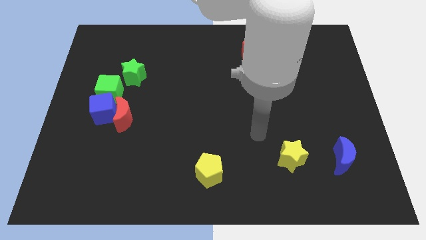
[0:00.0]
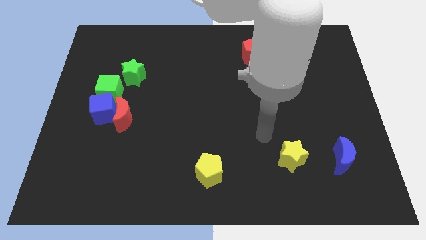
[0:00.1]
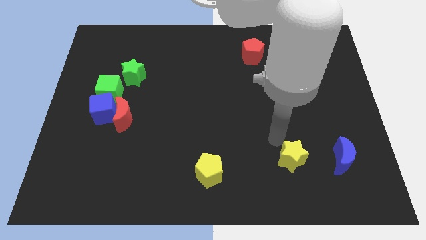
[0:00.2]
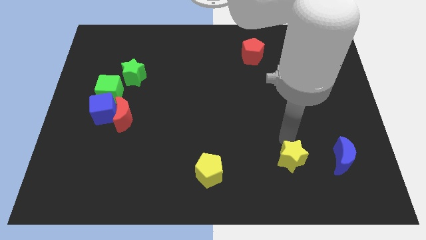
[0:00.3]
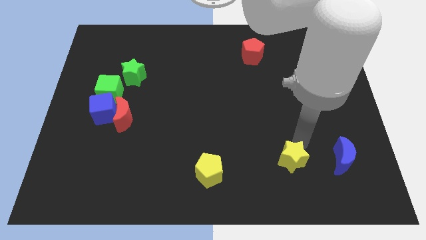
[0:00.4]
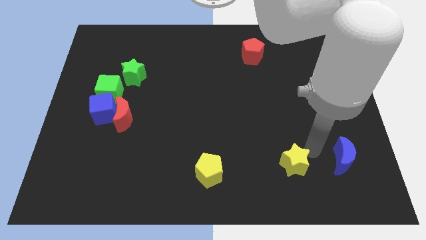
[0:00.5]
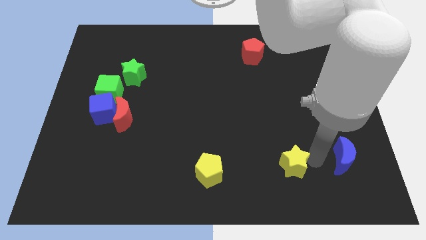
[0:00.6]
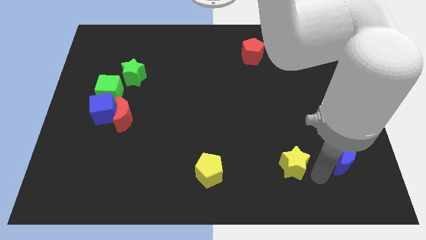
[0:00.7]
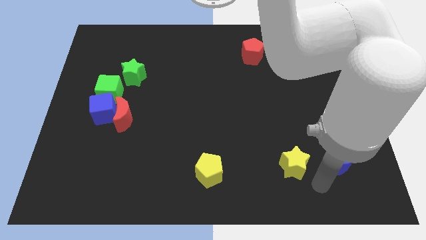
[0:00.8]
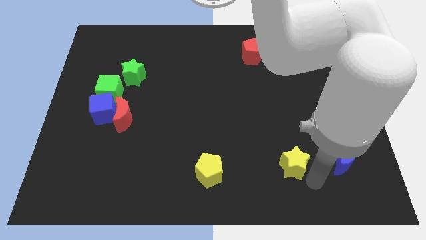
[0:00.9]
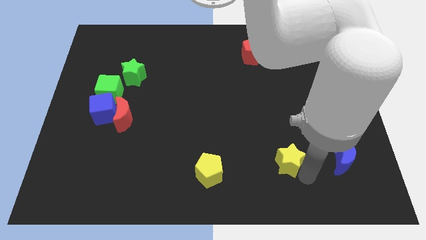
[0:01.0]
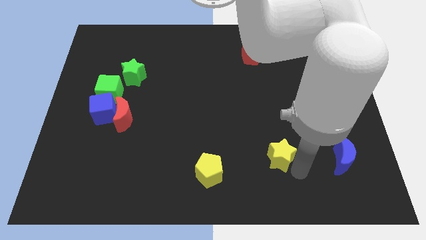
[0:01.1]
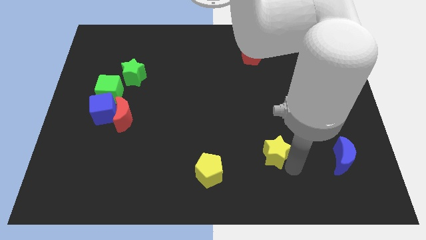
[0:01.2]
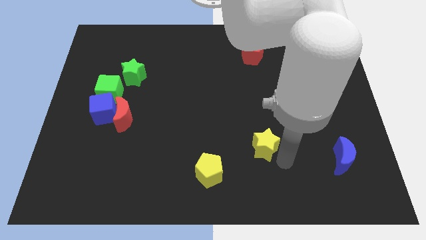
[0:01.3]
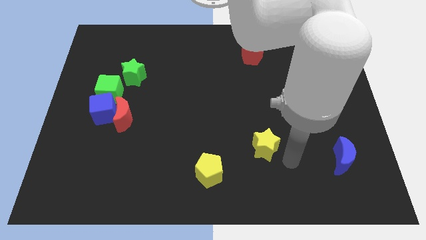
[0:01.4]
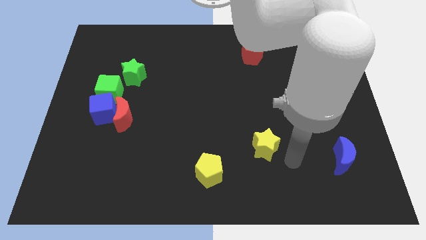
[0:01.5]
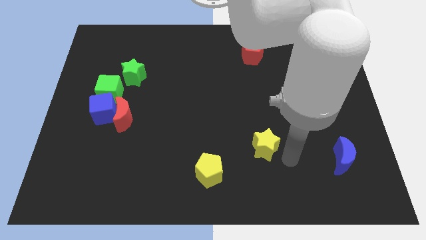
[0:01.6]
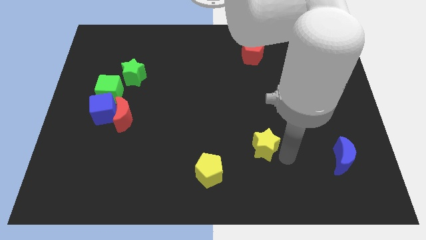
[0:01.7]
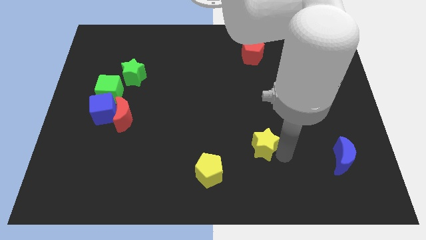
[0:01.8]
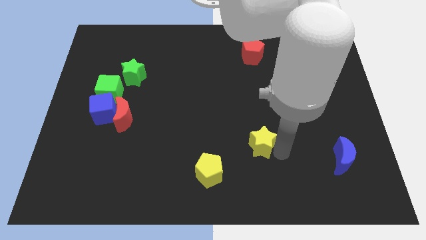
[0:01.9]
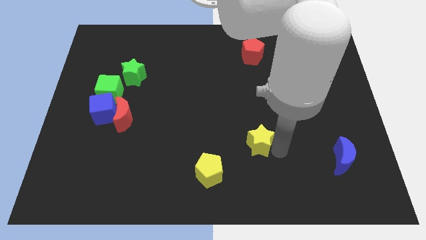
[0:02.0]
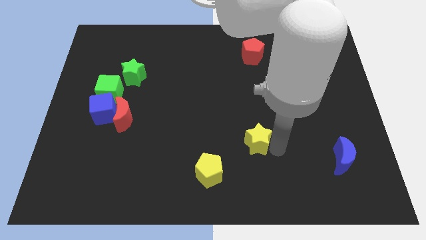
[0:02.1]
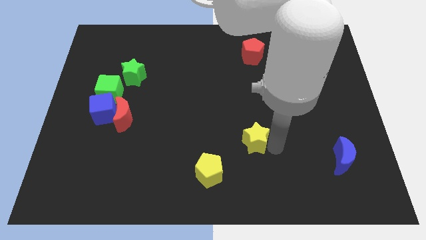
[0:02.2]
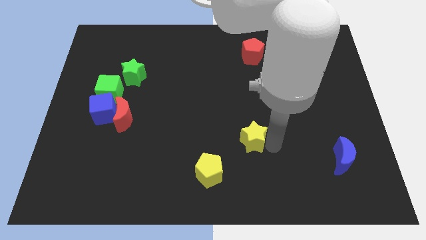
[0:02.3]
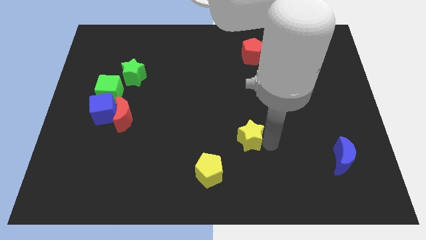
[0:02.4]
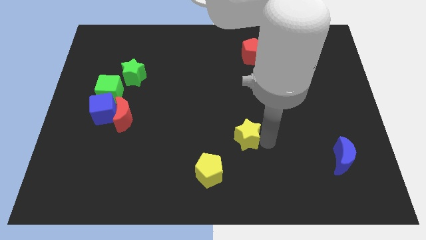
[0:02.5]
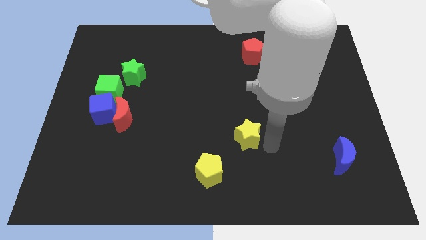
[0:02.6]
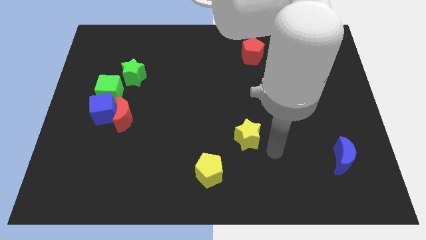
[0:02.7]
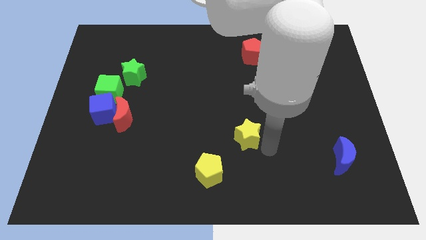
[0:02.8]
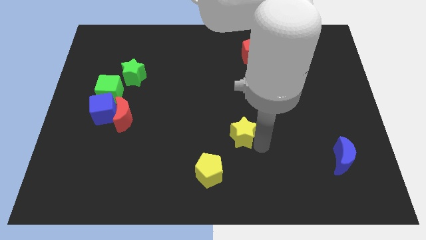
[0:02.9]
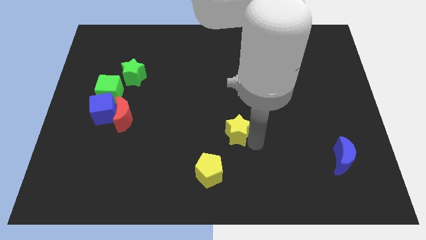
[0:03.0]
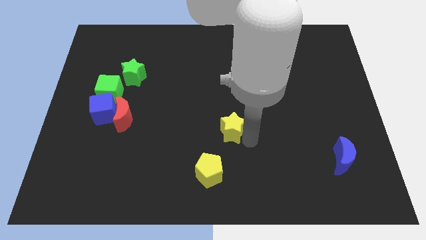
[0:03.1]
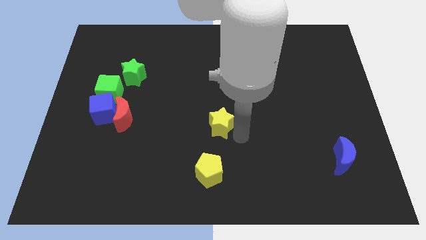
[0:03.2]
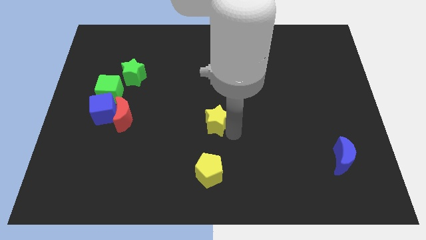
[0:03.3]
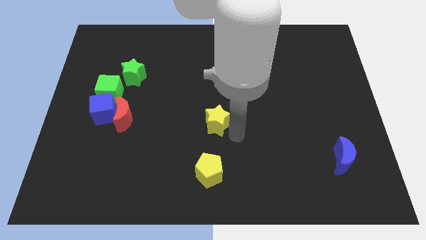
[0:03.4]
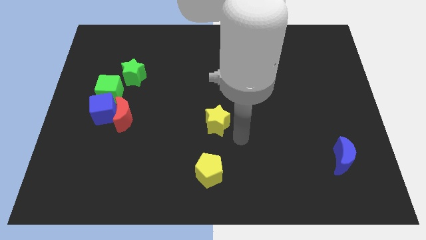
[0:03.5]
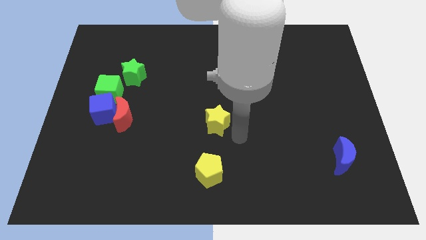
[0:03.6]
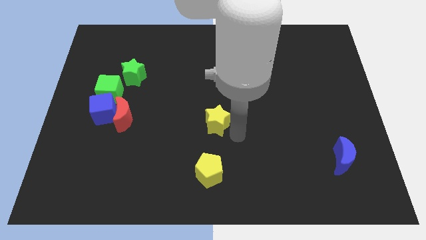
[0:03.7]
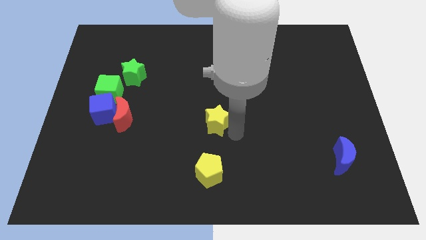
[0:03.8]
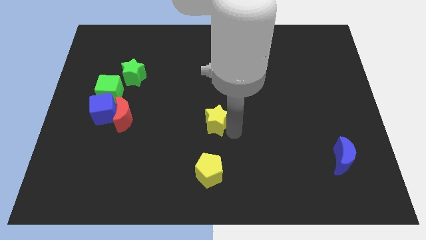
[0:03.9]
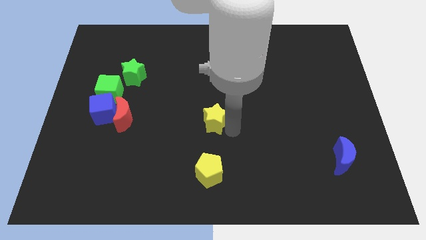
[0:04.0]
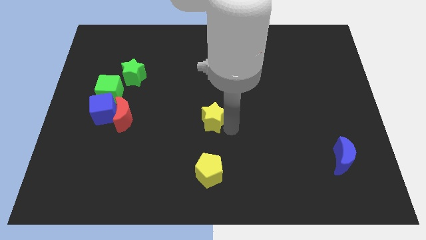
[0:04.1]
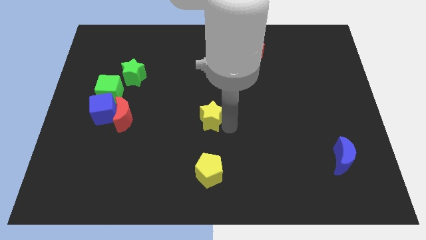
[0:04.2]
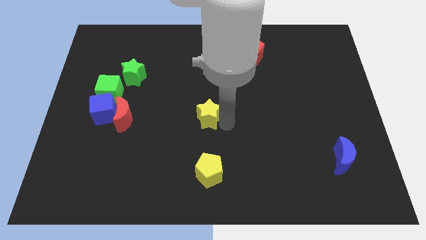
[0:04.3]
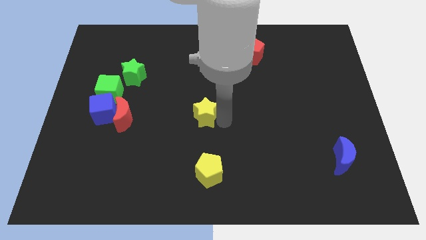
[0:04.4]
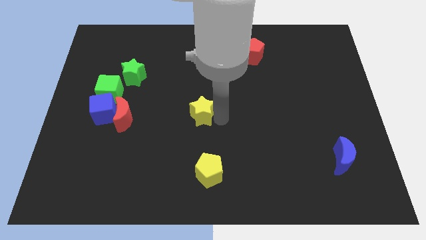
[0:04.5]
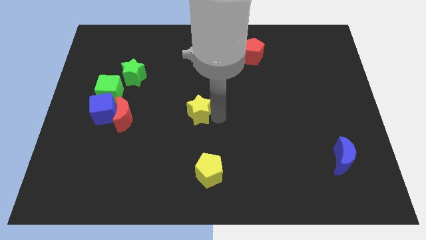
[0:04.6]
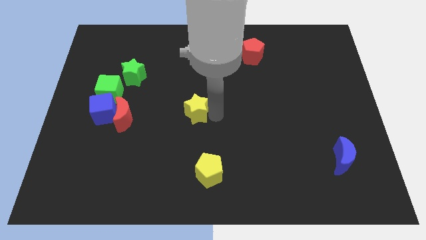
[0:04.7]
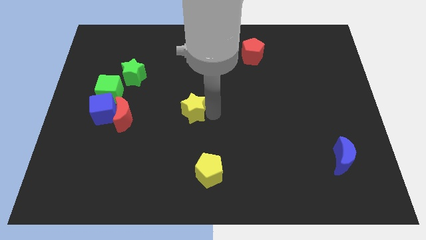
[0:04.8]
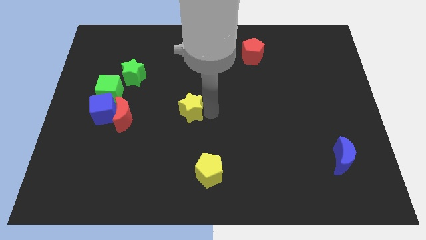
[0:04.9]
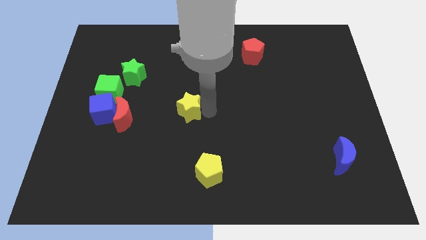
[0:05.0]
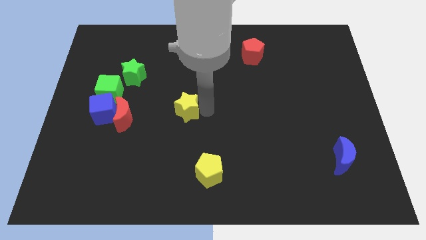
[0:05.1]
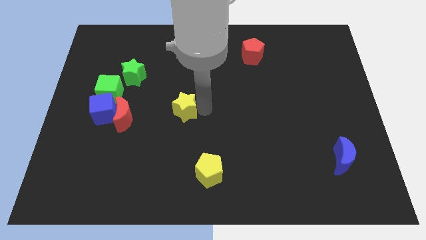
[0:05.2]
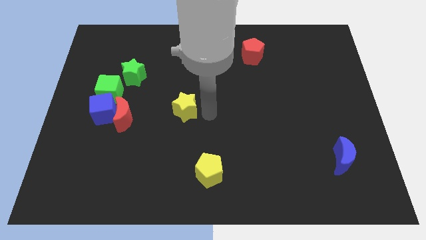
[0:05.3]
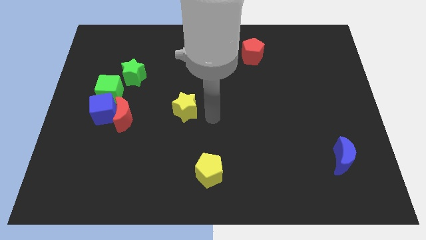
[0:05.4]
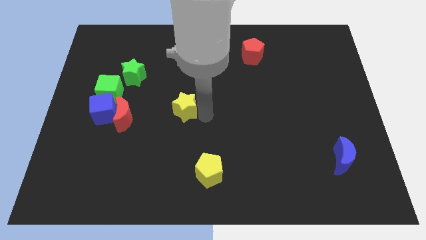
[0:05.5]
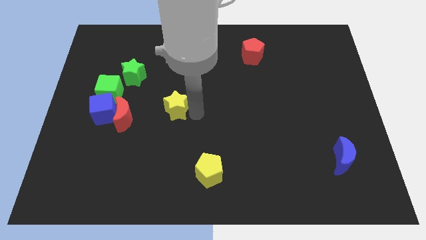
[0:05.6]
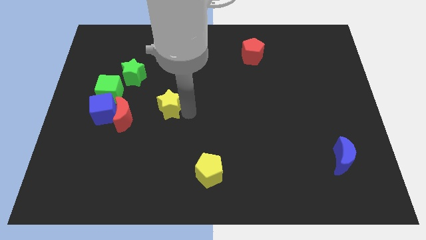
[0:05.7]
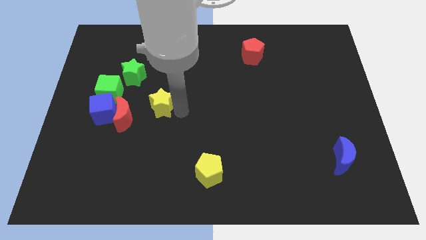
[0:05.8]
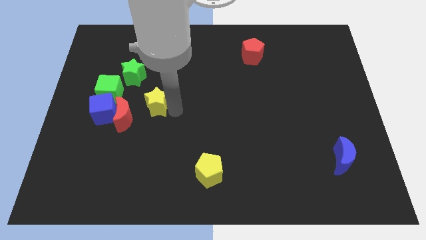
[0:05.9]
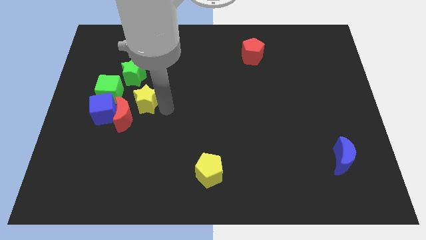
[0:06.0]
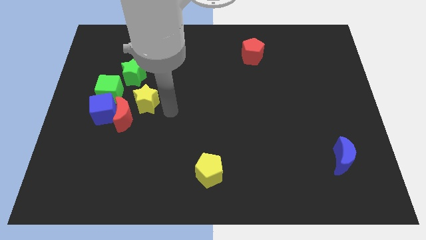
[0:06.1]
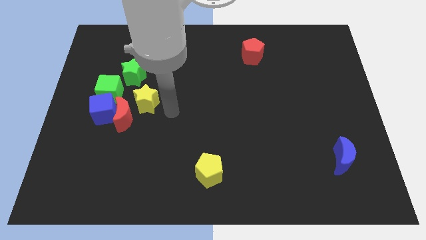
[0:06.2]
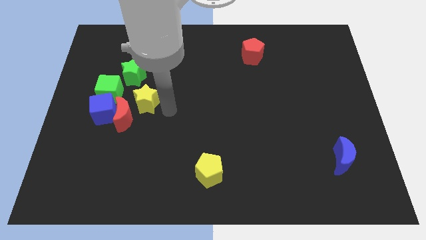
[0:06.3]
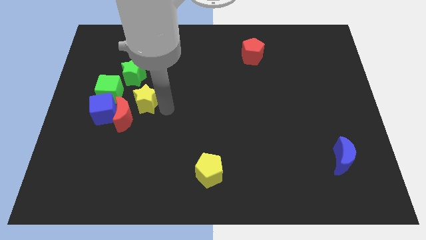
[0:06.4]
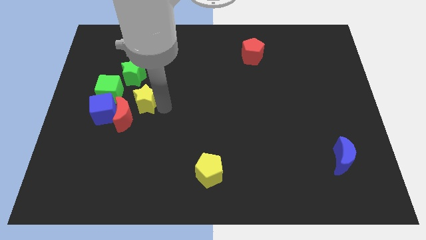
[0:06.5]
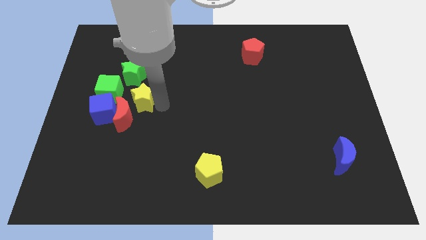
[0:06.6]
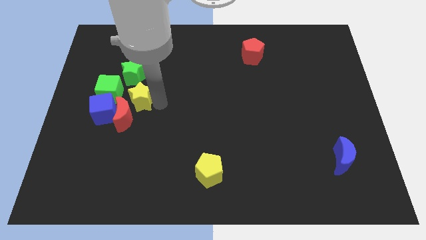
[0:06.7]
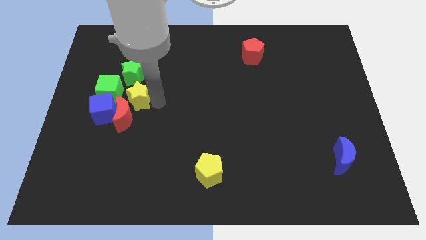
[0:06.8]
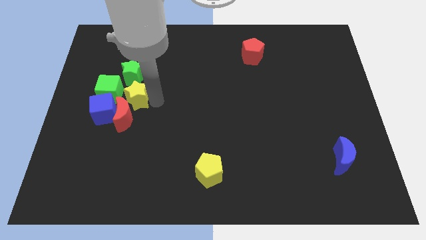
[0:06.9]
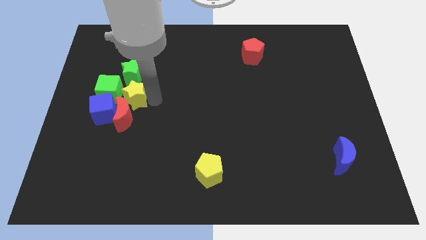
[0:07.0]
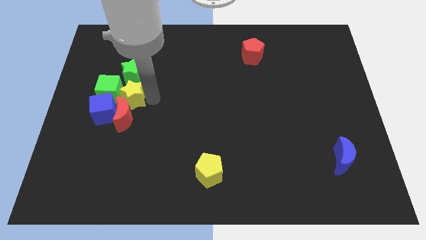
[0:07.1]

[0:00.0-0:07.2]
push the yellow star next to the green cube
